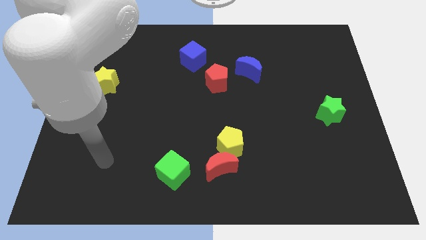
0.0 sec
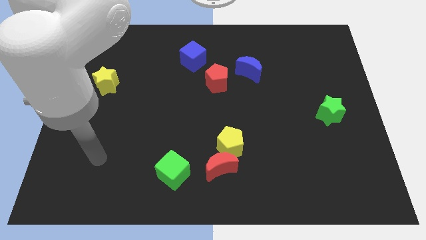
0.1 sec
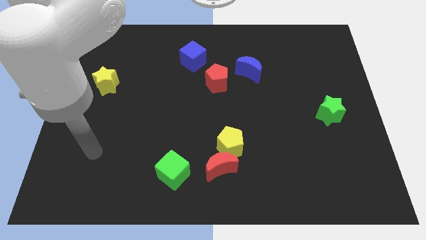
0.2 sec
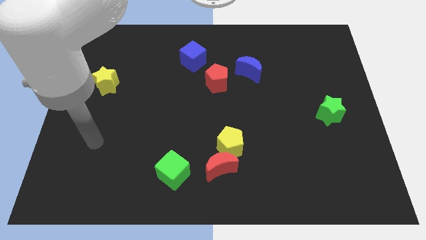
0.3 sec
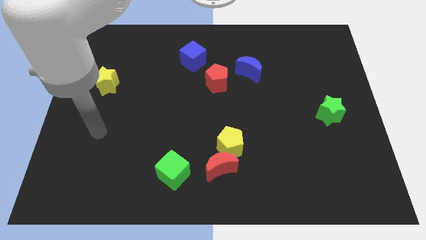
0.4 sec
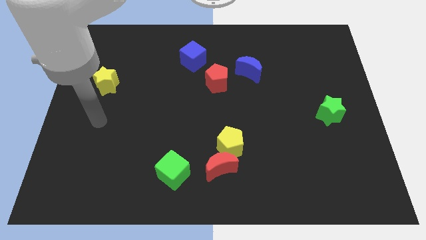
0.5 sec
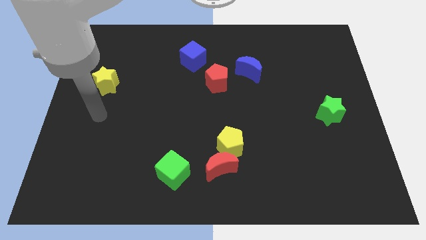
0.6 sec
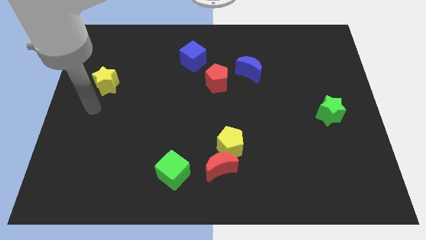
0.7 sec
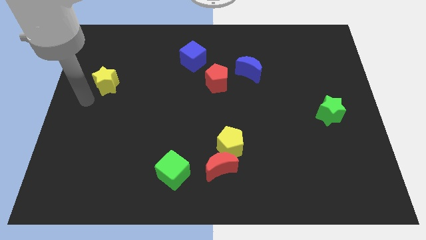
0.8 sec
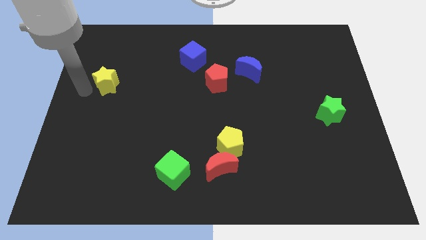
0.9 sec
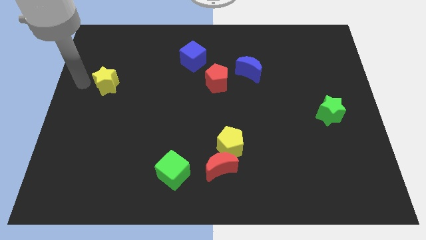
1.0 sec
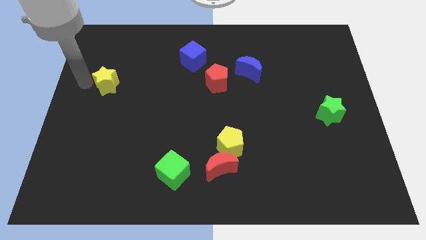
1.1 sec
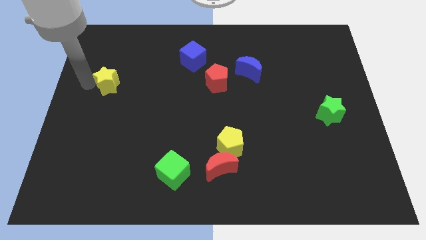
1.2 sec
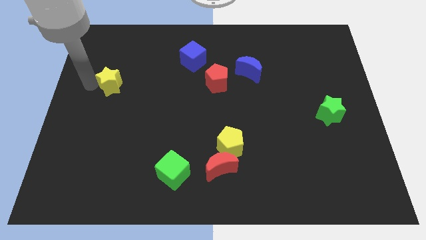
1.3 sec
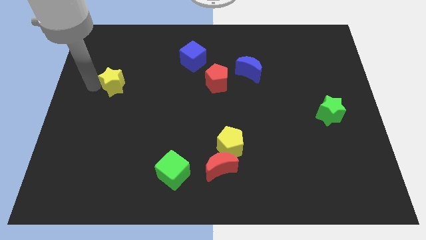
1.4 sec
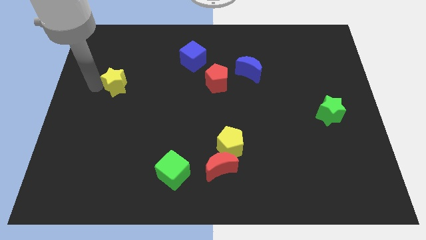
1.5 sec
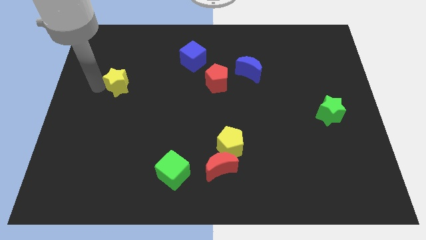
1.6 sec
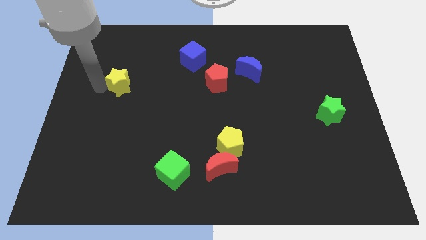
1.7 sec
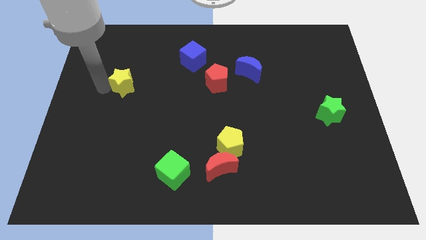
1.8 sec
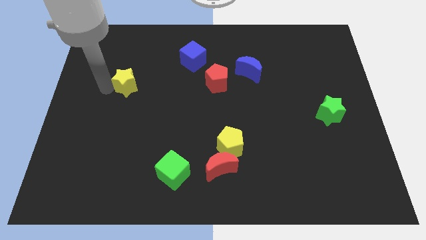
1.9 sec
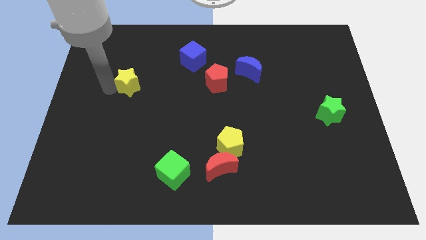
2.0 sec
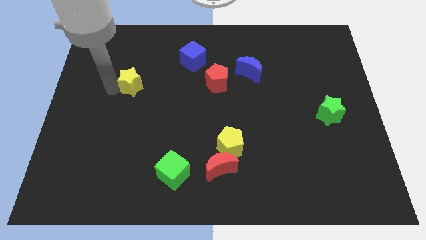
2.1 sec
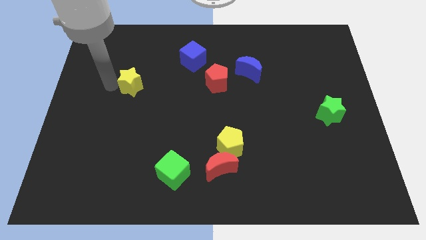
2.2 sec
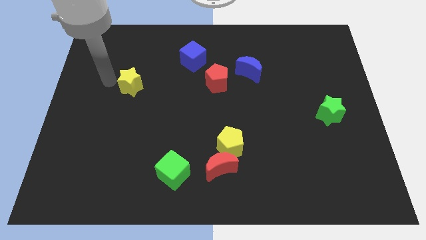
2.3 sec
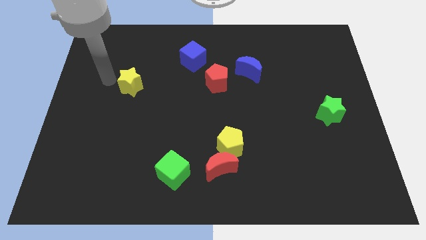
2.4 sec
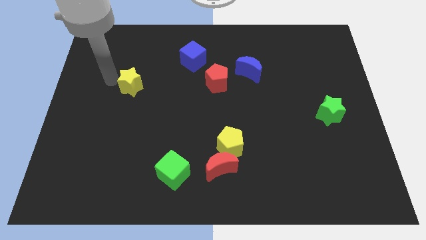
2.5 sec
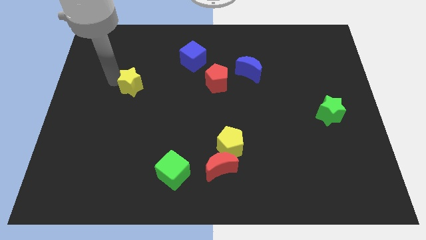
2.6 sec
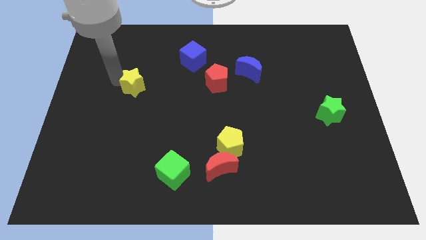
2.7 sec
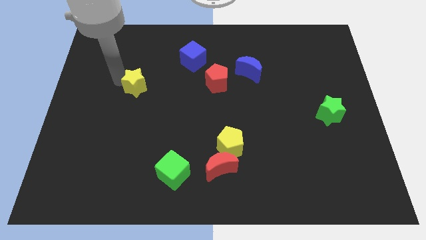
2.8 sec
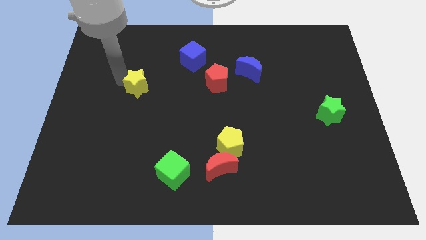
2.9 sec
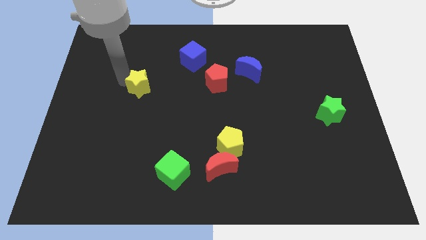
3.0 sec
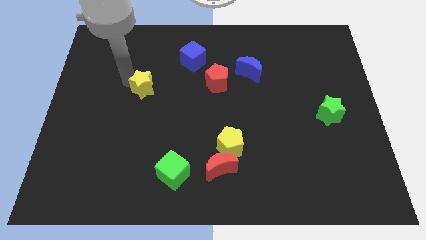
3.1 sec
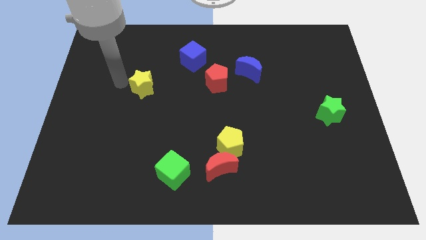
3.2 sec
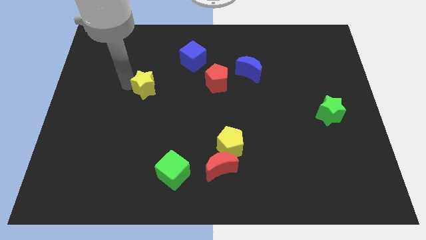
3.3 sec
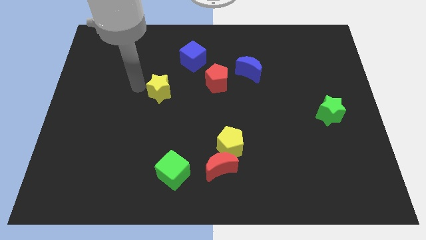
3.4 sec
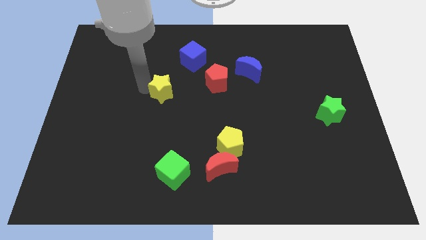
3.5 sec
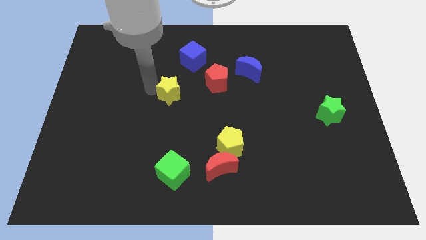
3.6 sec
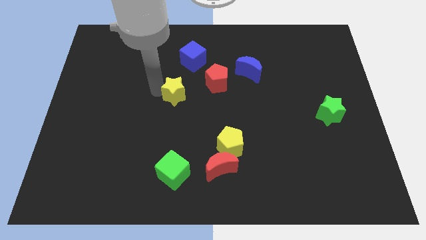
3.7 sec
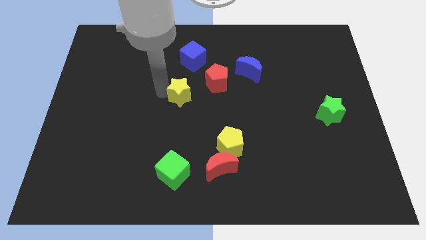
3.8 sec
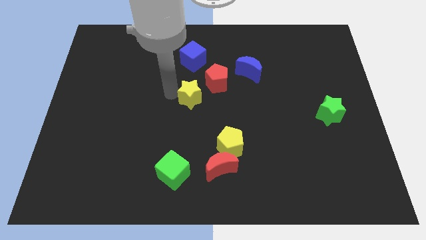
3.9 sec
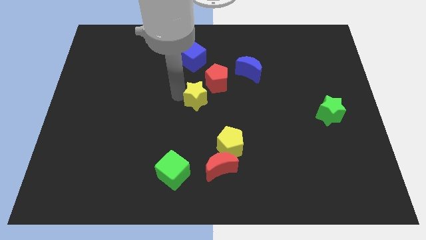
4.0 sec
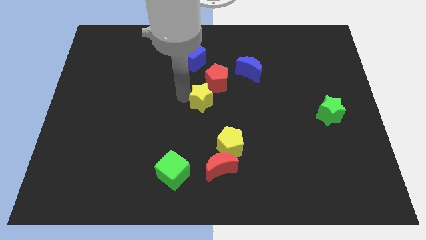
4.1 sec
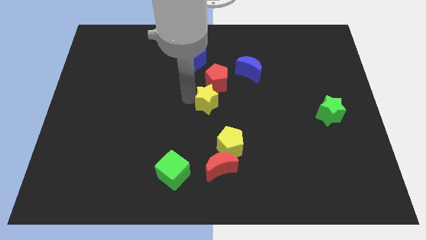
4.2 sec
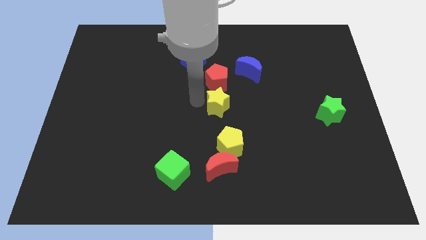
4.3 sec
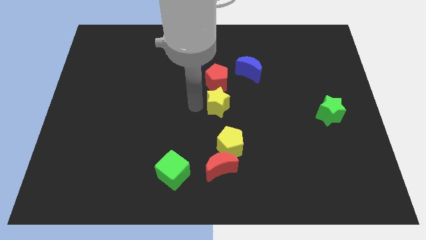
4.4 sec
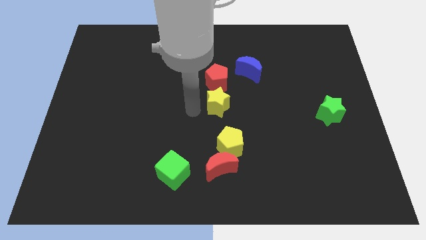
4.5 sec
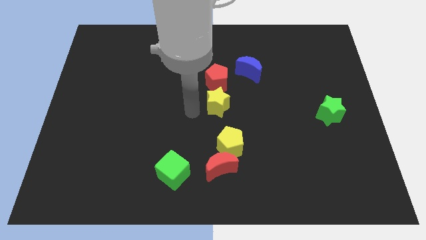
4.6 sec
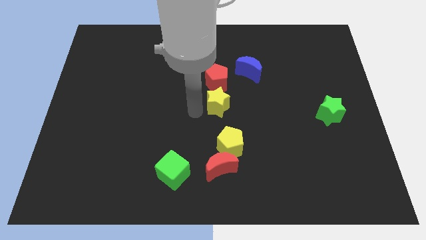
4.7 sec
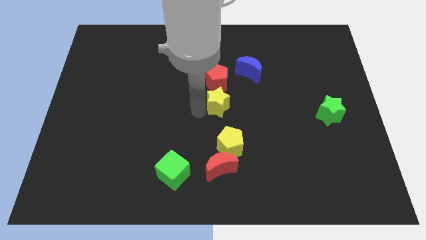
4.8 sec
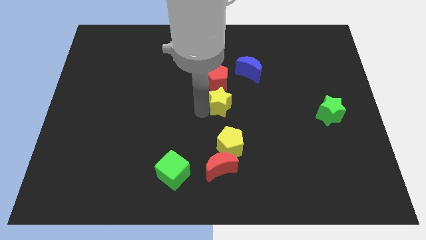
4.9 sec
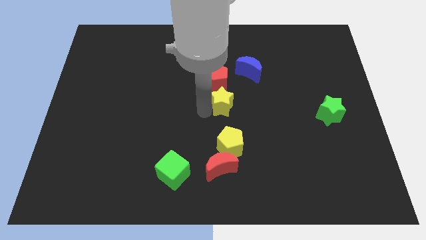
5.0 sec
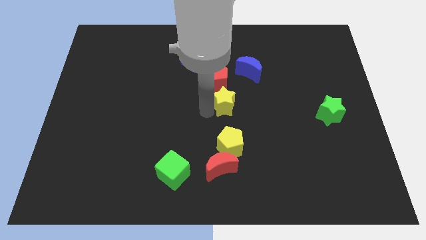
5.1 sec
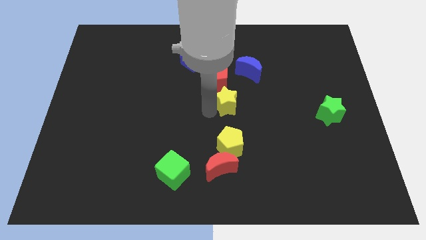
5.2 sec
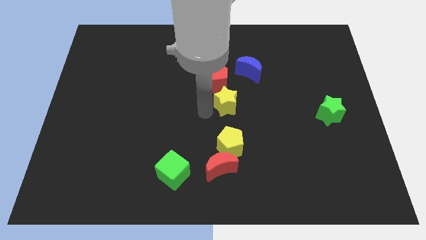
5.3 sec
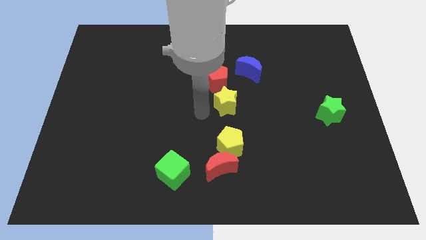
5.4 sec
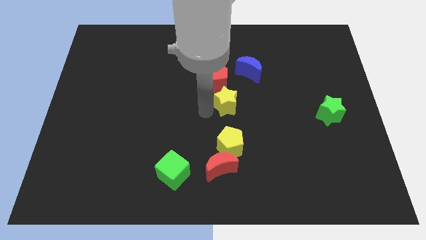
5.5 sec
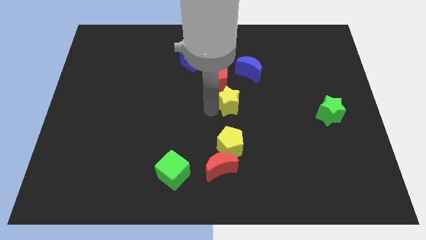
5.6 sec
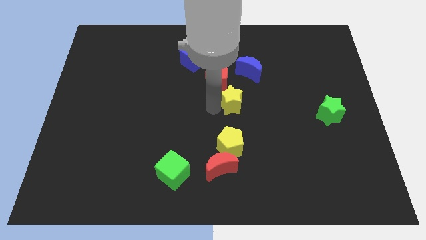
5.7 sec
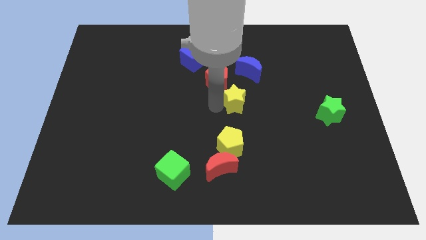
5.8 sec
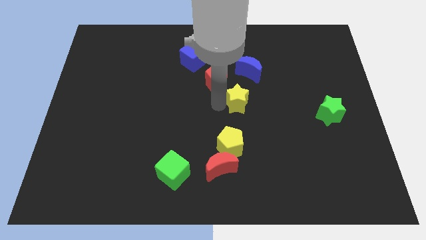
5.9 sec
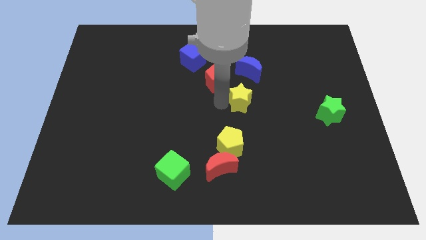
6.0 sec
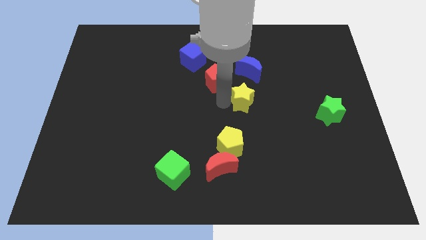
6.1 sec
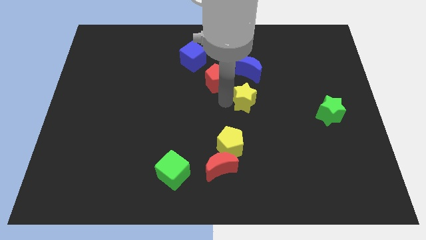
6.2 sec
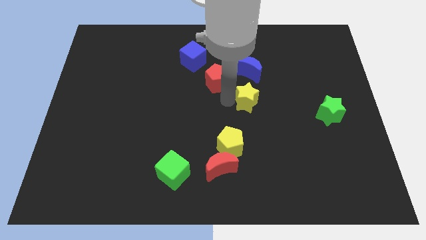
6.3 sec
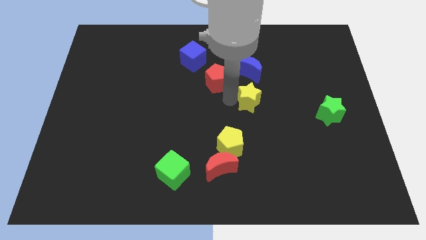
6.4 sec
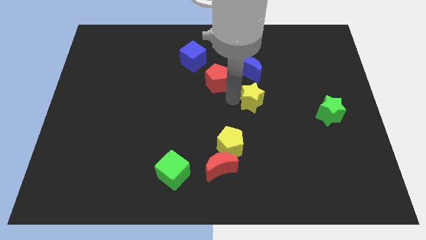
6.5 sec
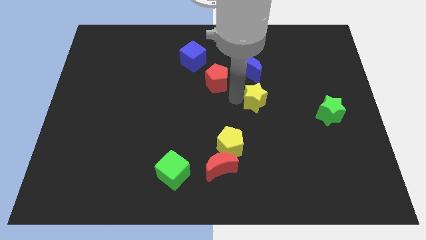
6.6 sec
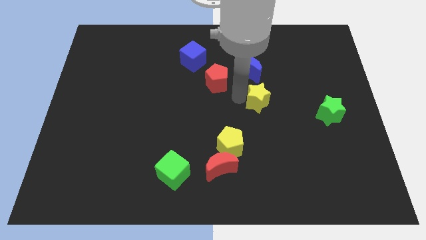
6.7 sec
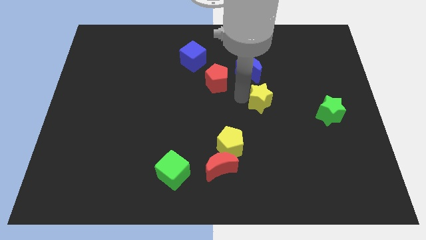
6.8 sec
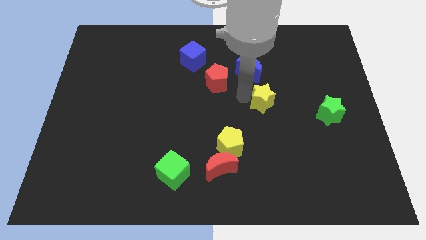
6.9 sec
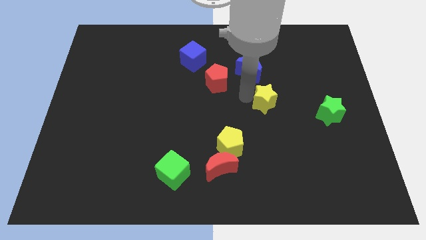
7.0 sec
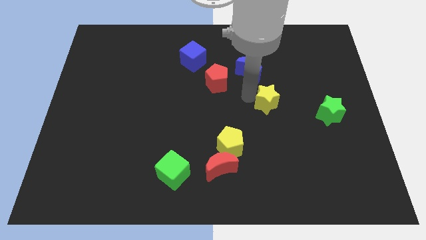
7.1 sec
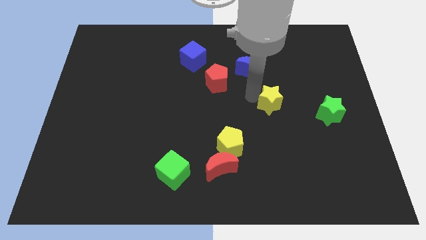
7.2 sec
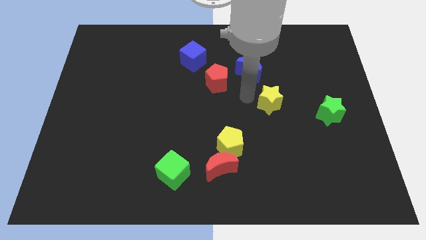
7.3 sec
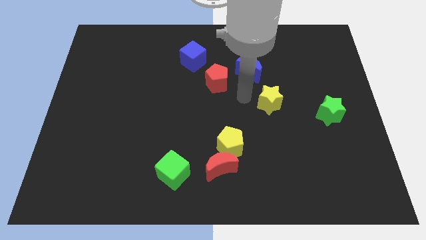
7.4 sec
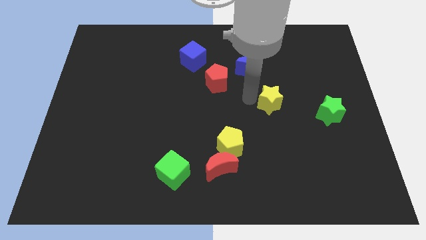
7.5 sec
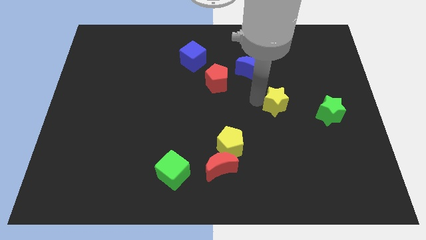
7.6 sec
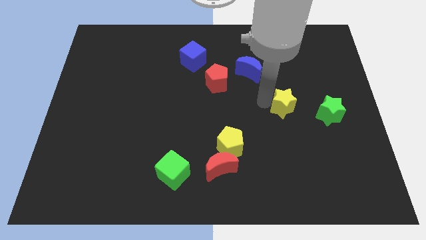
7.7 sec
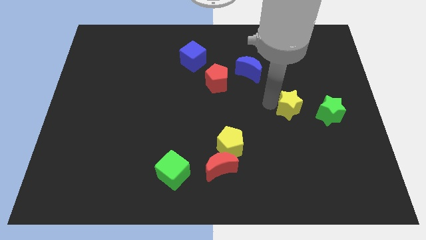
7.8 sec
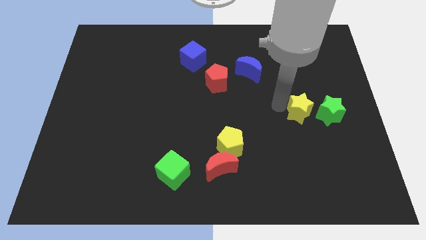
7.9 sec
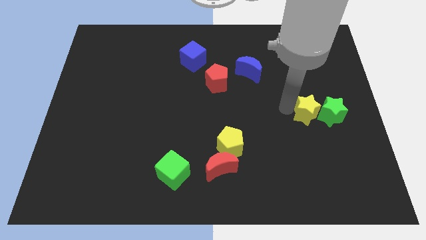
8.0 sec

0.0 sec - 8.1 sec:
push the yellow star close to the green star
